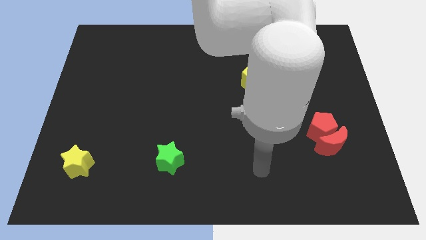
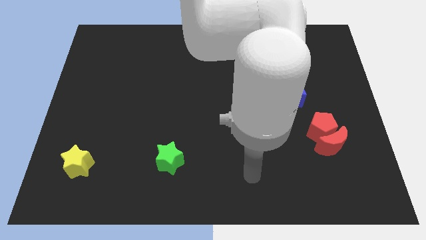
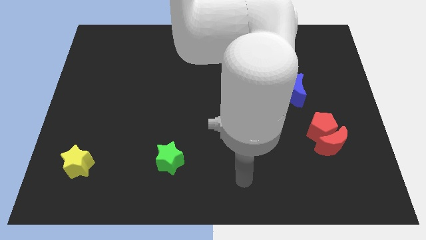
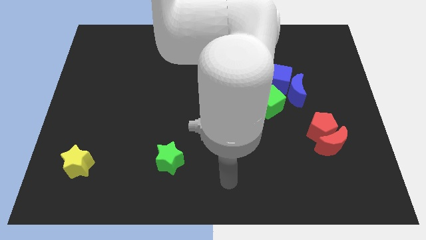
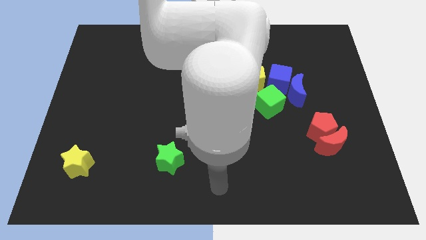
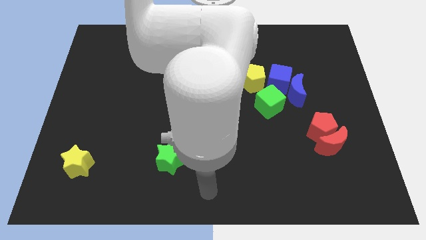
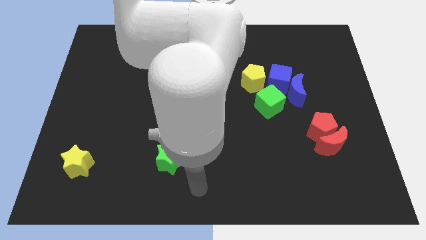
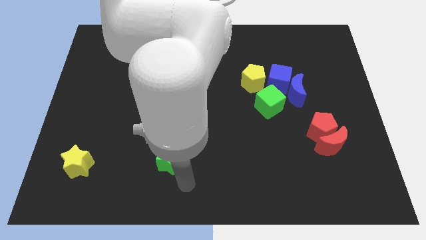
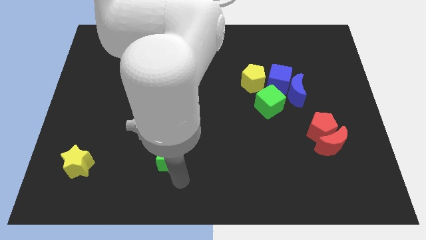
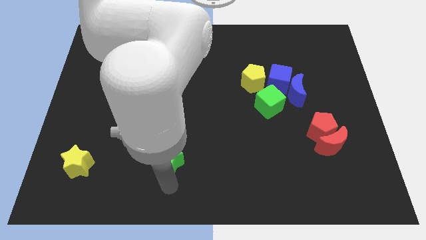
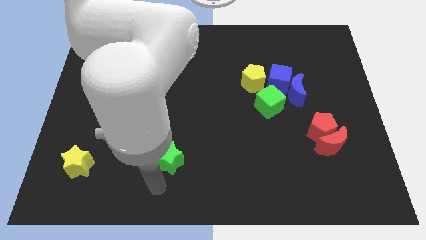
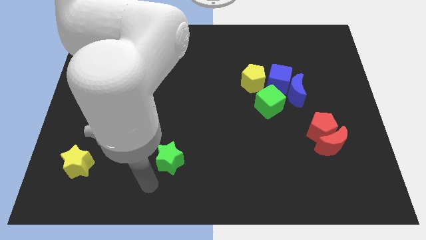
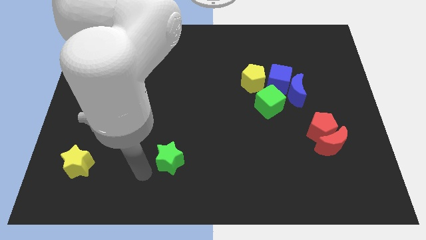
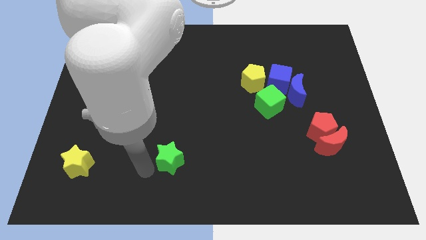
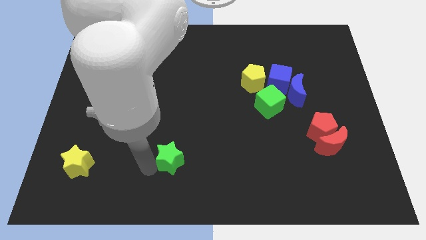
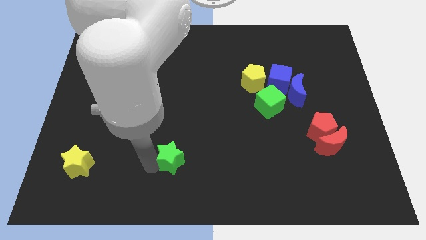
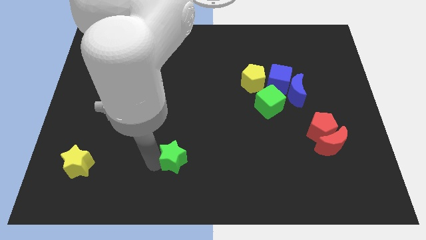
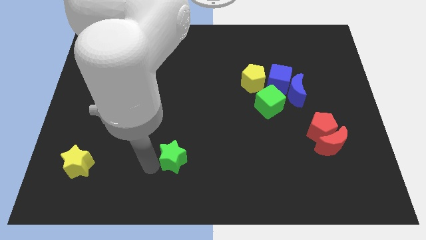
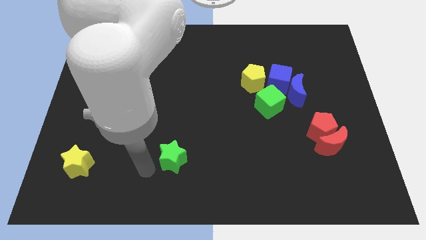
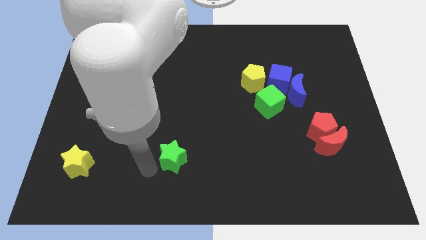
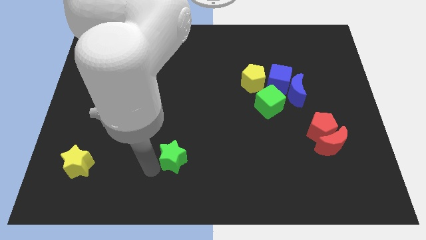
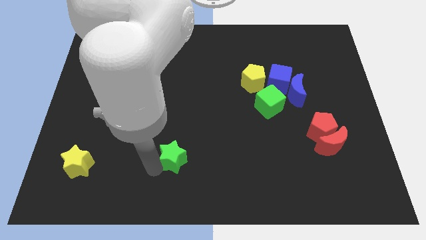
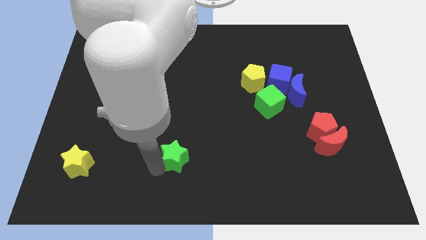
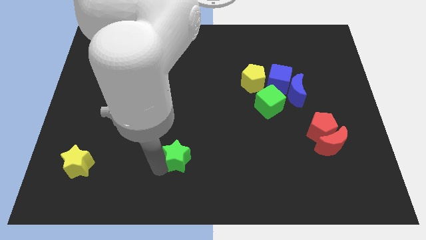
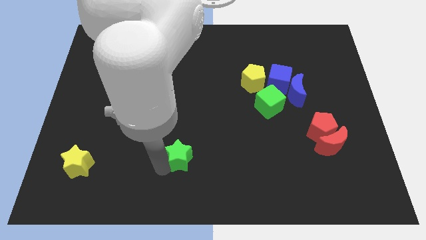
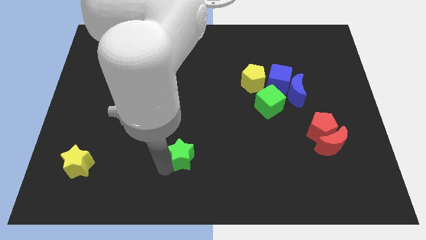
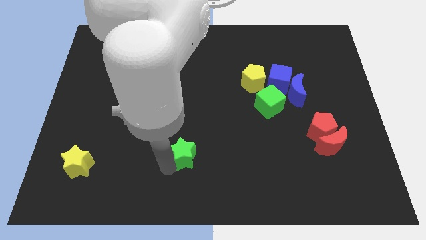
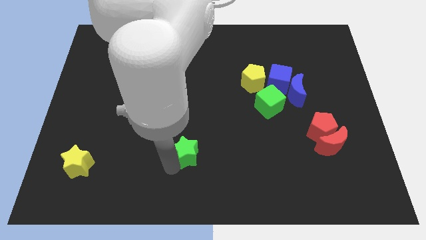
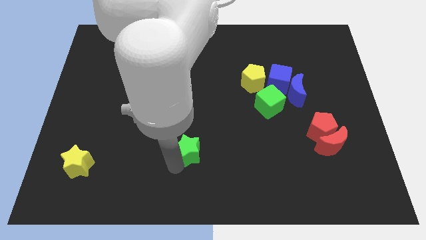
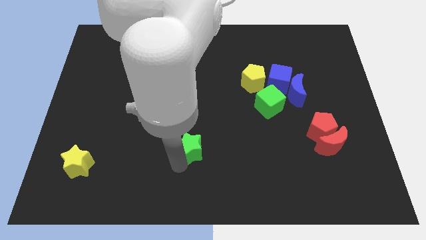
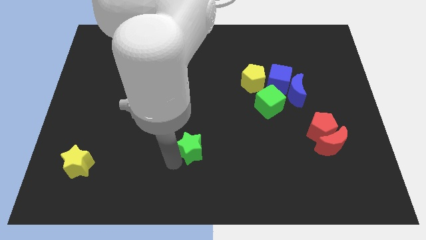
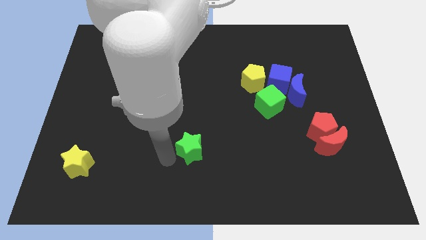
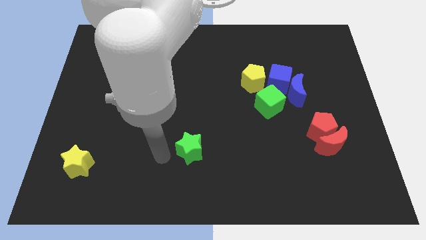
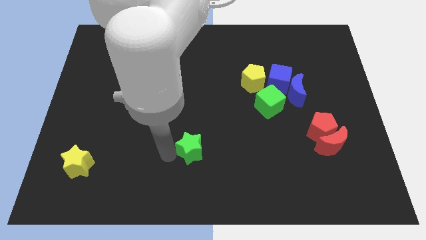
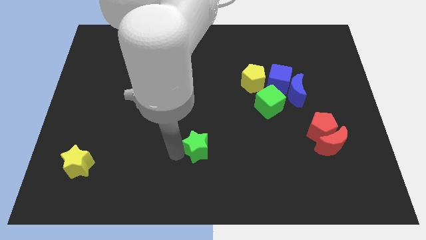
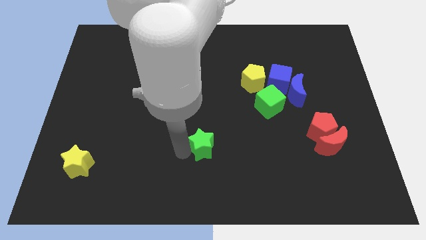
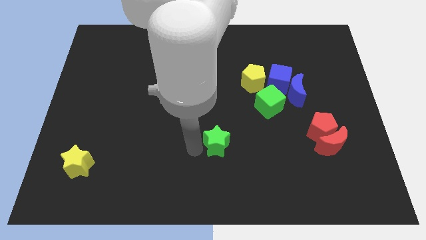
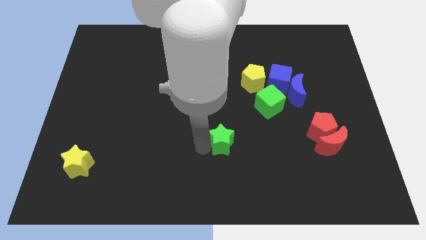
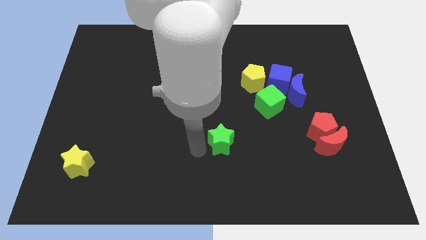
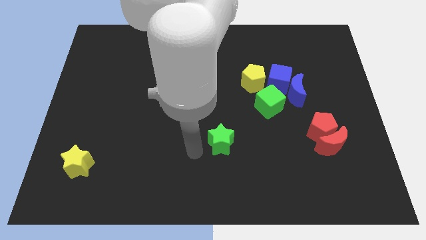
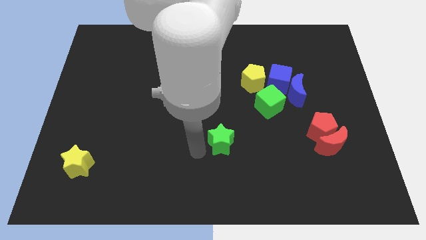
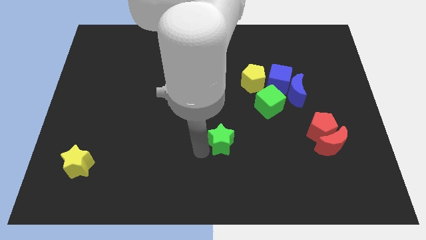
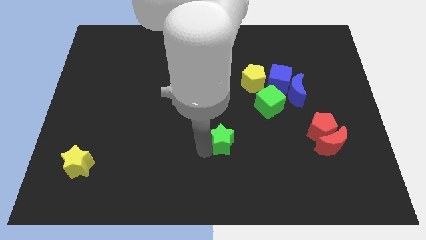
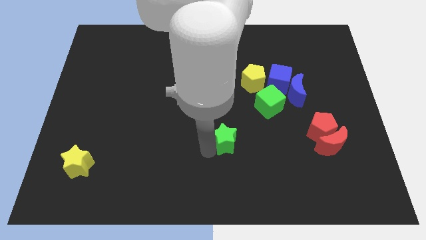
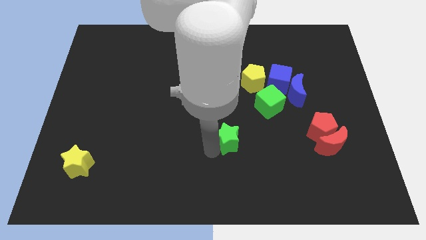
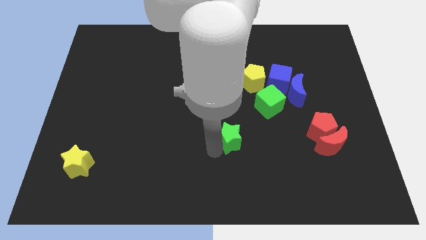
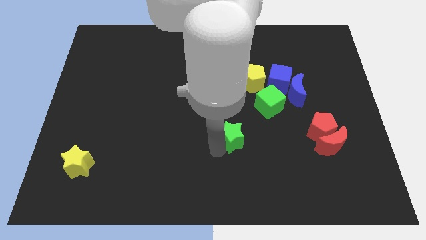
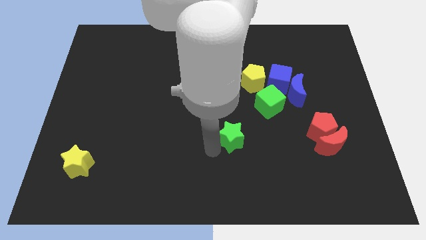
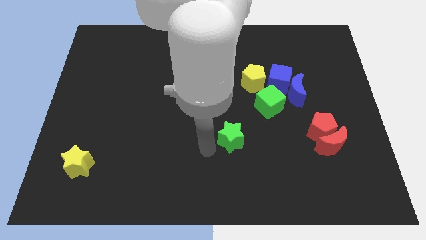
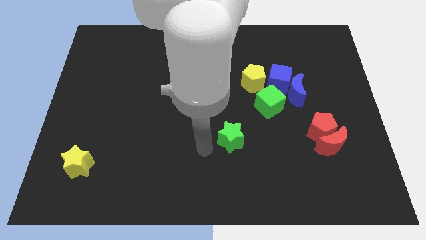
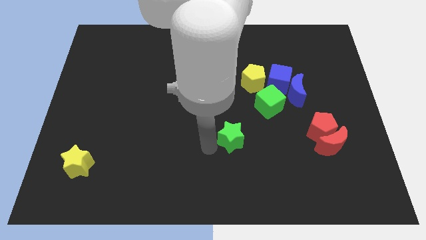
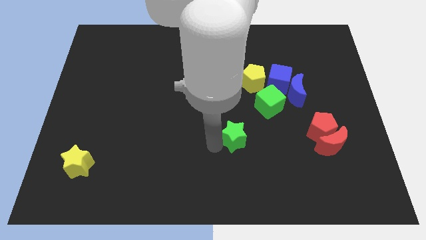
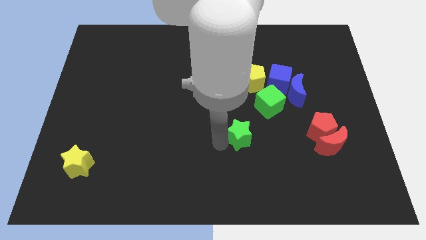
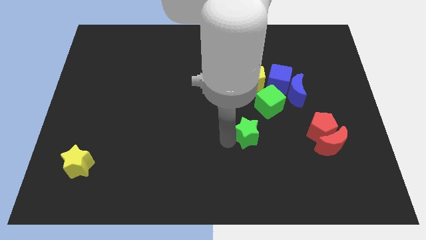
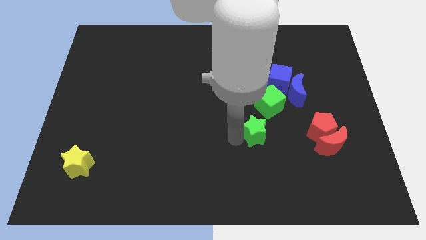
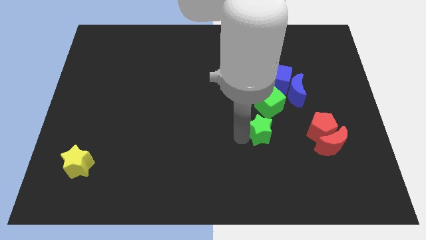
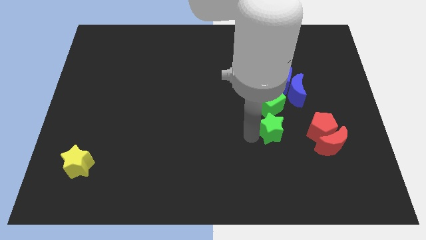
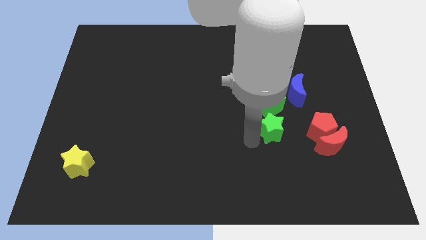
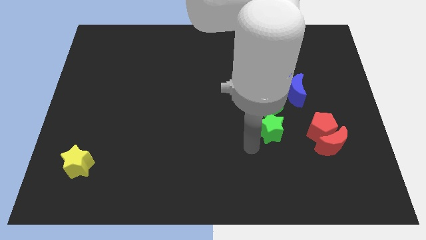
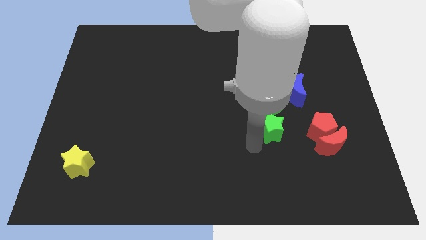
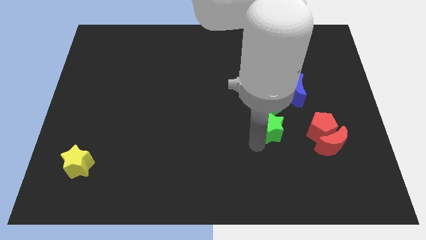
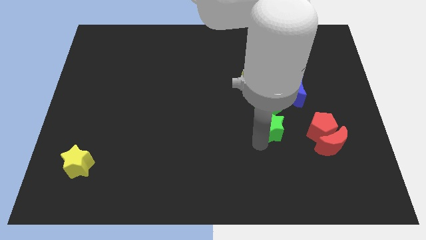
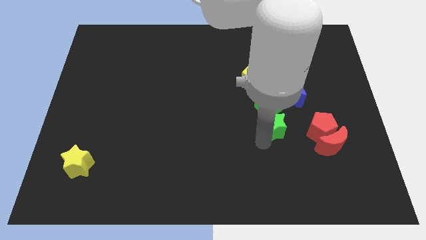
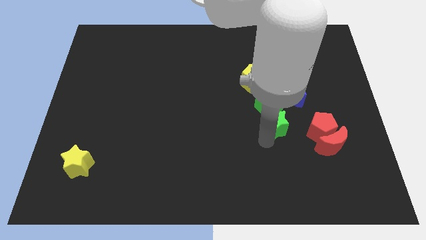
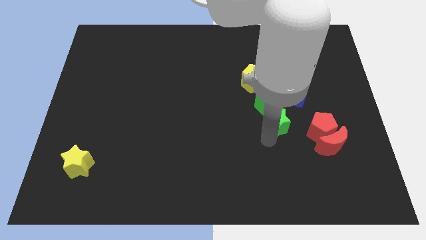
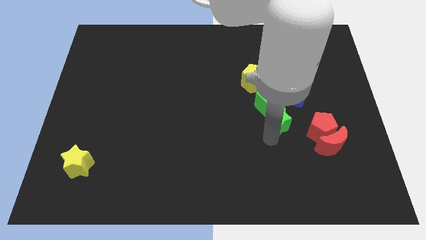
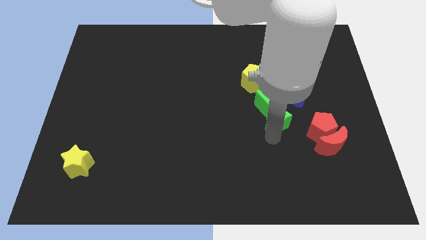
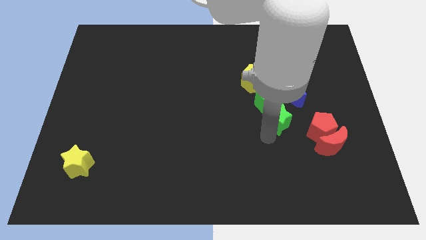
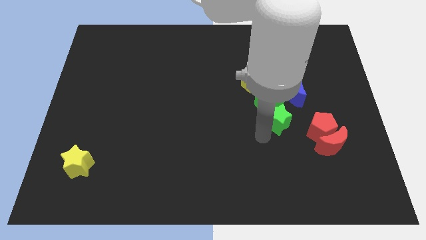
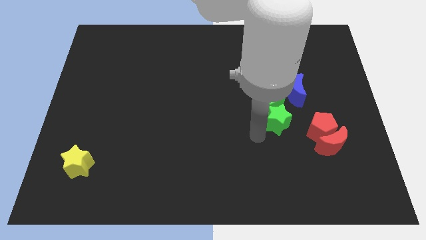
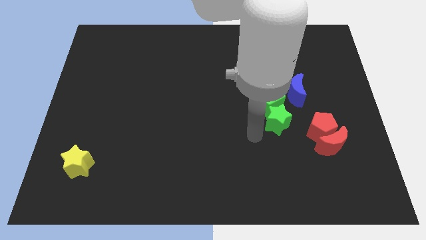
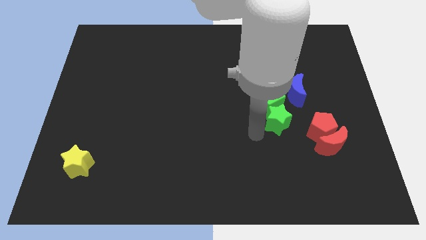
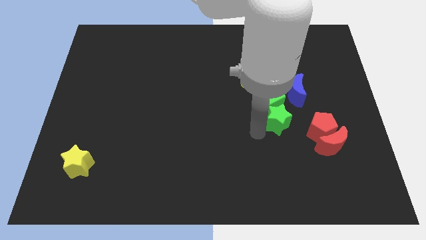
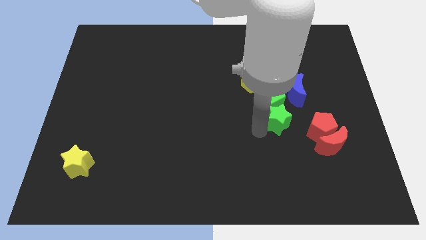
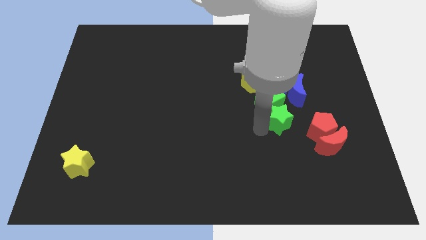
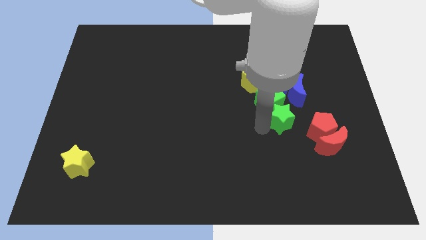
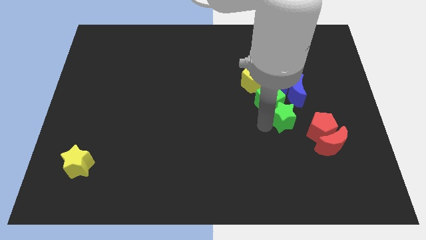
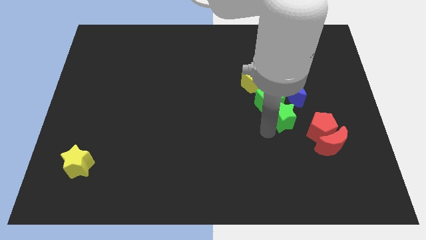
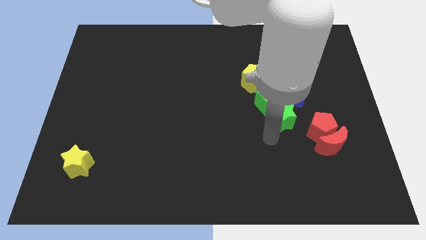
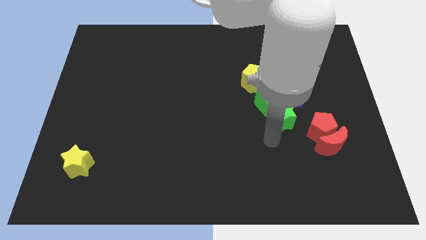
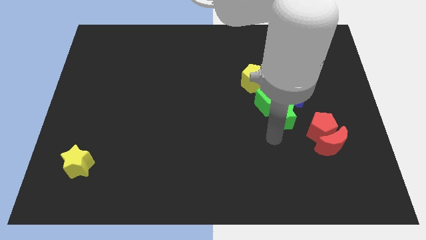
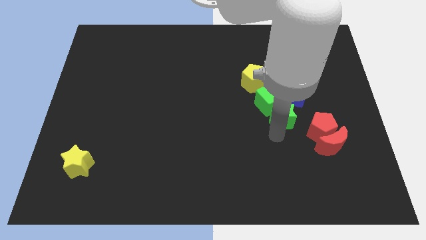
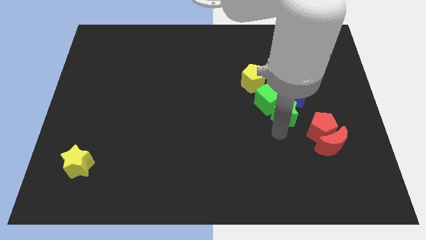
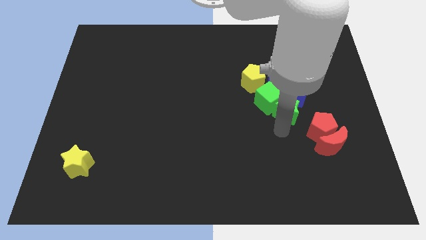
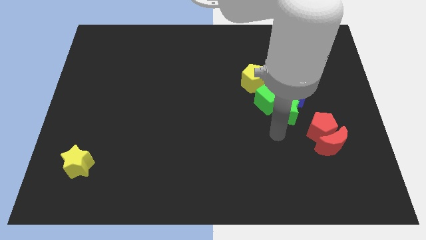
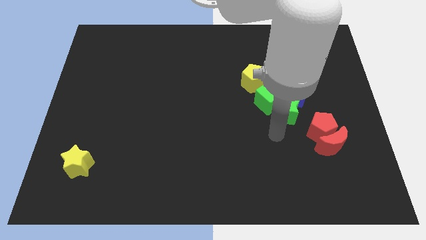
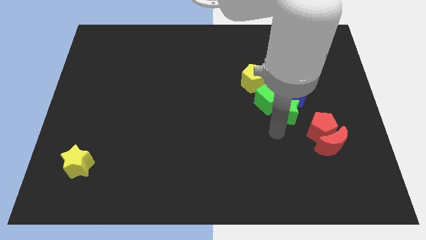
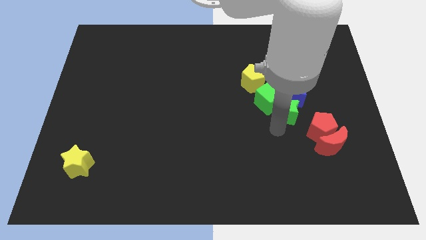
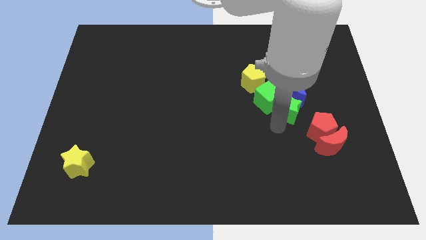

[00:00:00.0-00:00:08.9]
move the green star close to the blue moon
